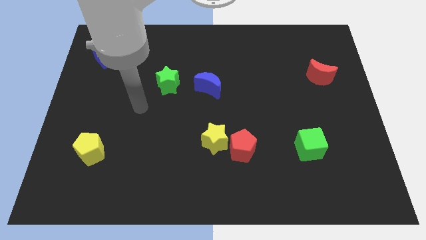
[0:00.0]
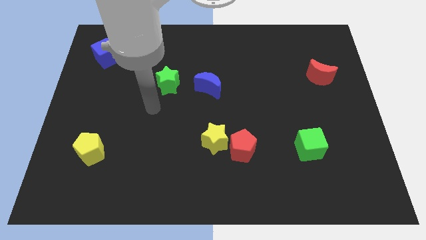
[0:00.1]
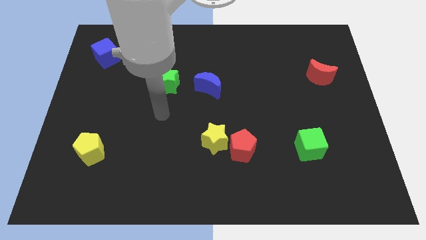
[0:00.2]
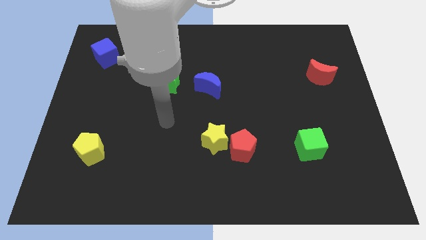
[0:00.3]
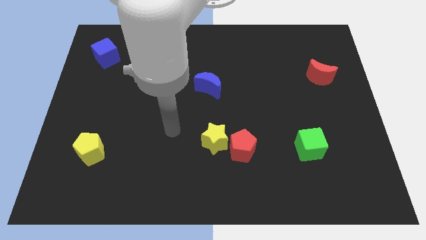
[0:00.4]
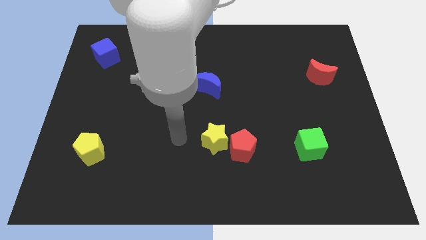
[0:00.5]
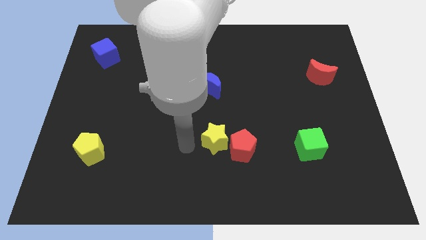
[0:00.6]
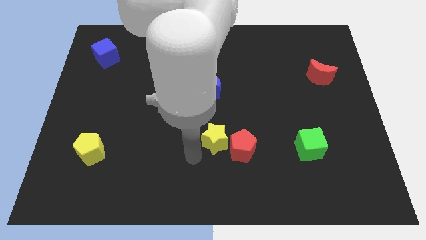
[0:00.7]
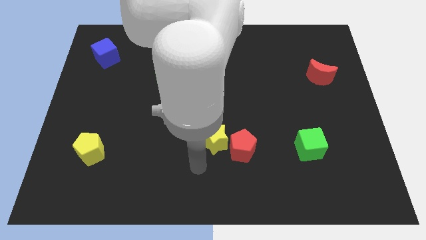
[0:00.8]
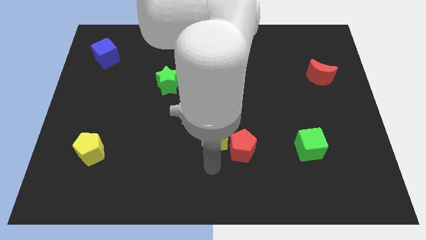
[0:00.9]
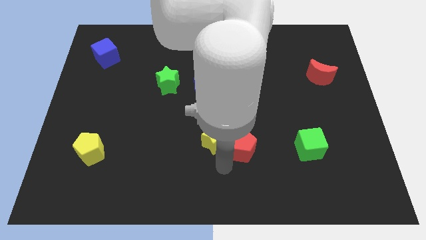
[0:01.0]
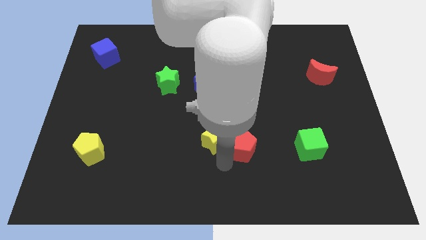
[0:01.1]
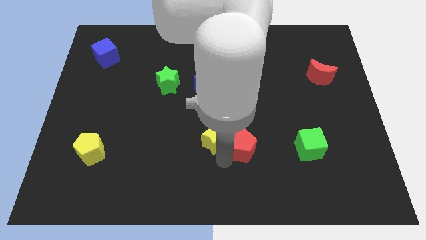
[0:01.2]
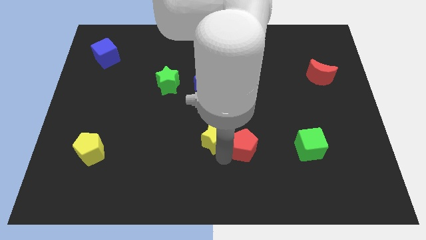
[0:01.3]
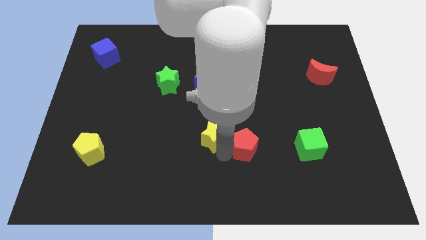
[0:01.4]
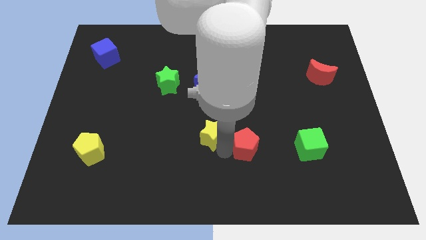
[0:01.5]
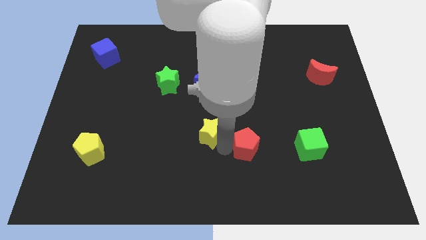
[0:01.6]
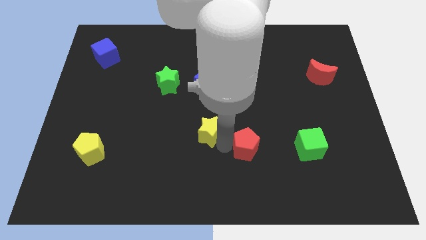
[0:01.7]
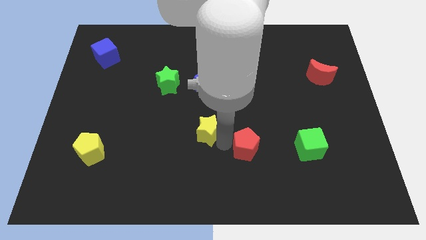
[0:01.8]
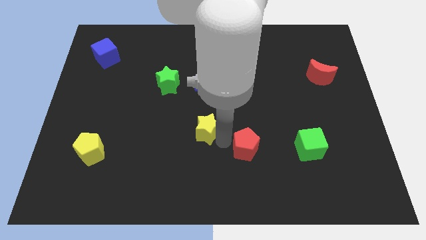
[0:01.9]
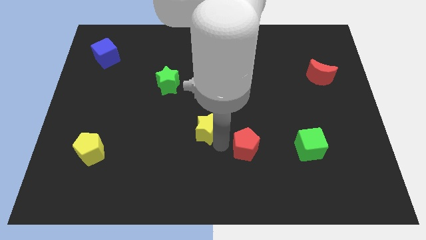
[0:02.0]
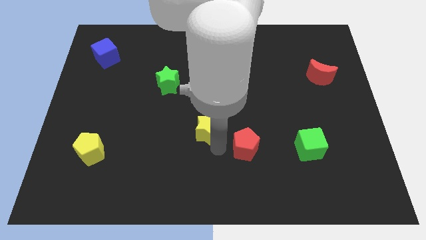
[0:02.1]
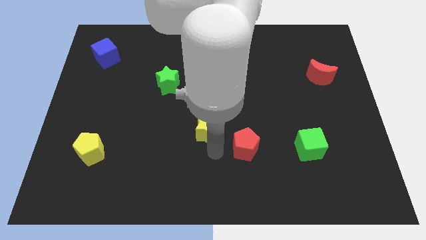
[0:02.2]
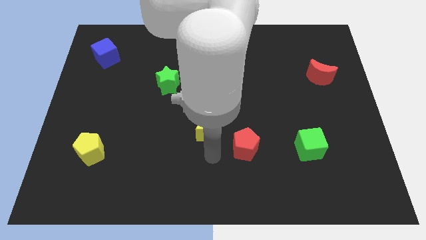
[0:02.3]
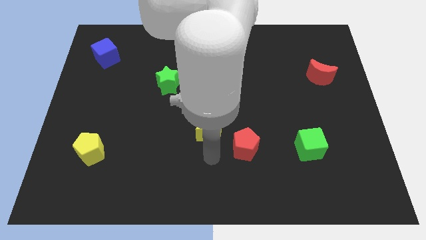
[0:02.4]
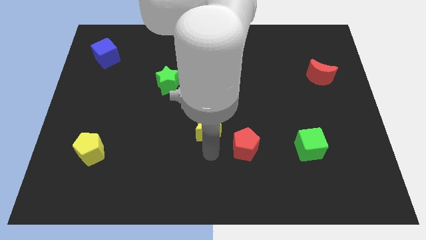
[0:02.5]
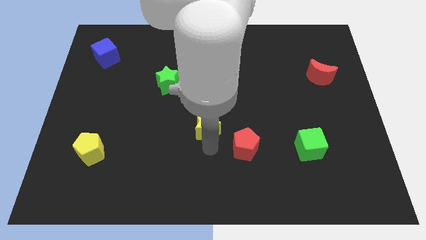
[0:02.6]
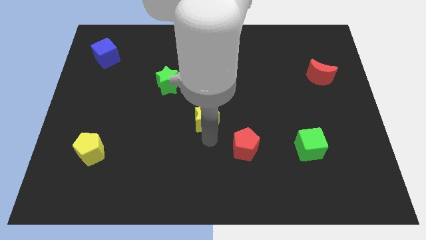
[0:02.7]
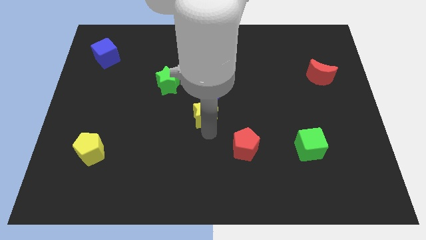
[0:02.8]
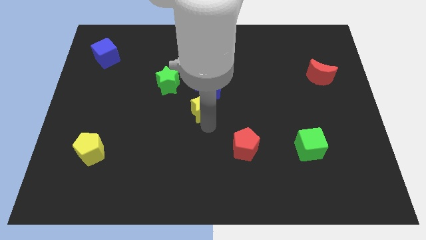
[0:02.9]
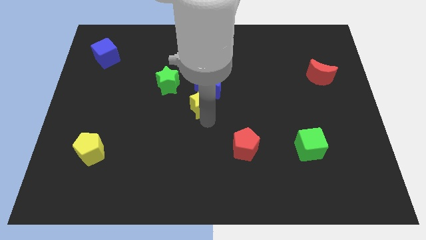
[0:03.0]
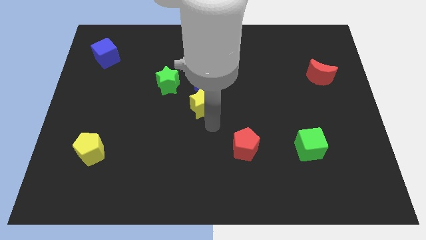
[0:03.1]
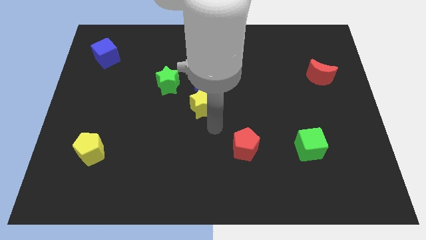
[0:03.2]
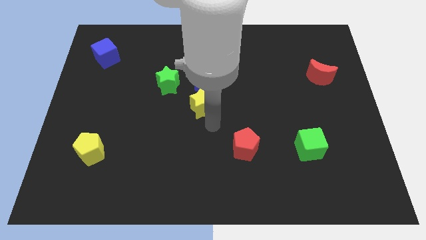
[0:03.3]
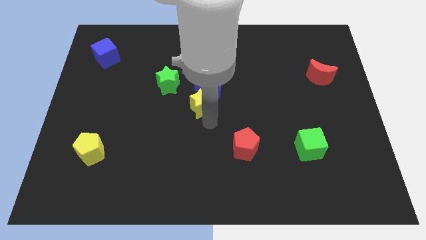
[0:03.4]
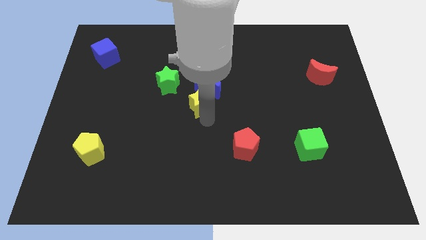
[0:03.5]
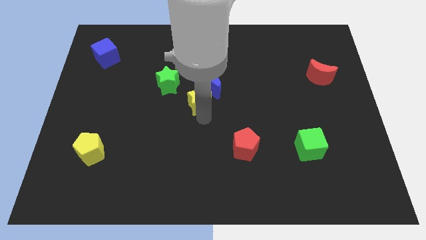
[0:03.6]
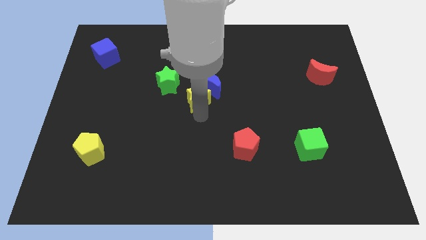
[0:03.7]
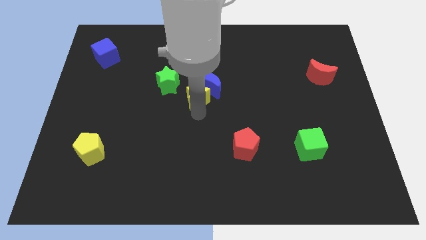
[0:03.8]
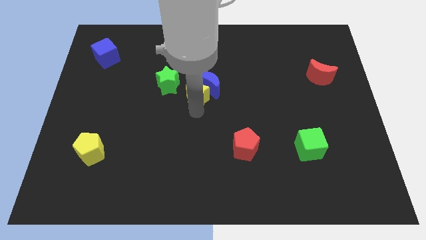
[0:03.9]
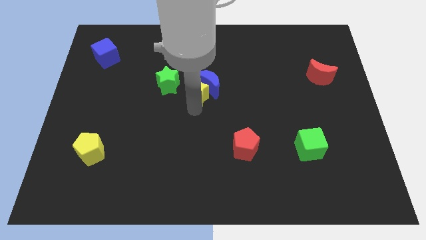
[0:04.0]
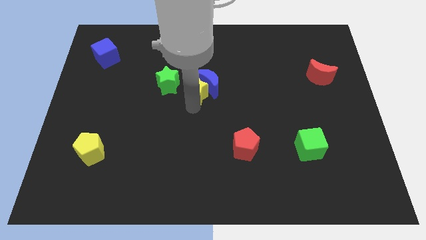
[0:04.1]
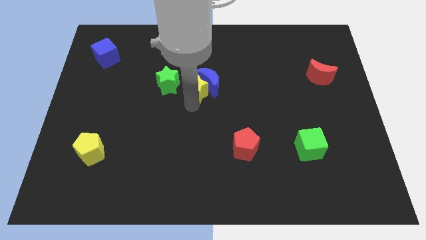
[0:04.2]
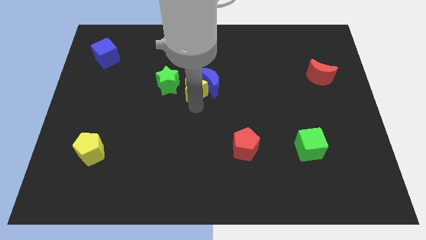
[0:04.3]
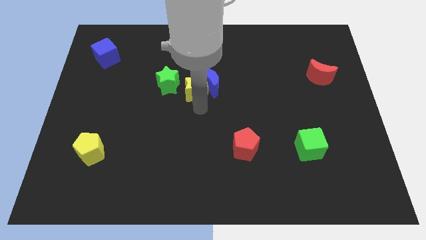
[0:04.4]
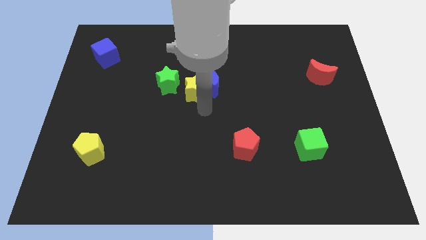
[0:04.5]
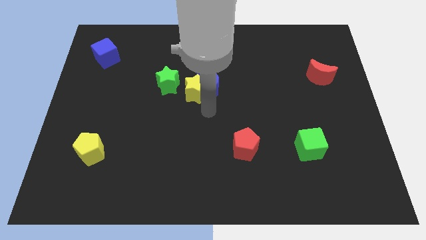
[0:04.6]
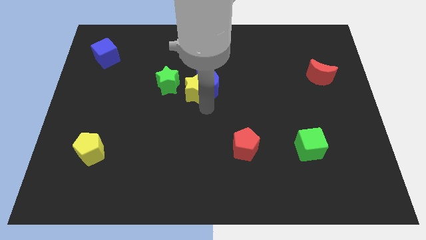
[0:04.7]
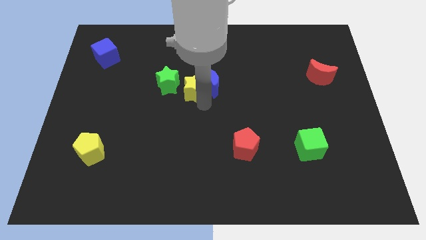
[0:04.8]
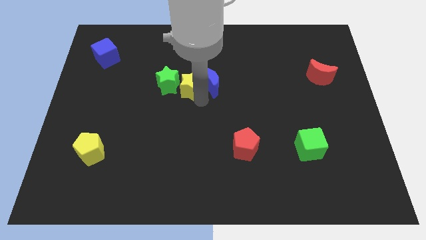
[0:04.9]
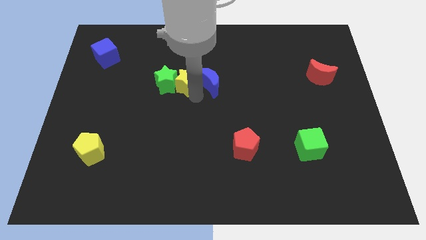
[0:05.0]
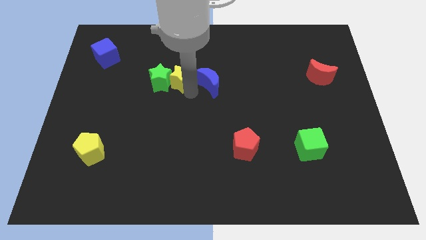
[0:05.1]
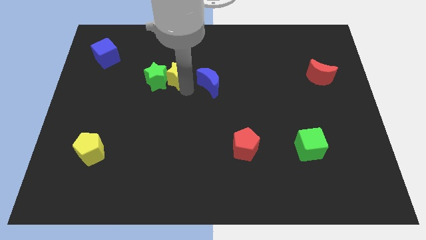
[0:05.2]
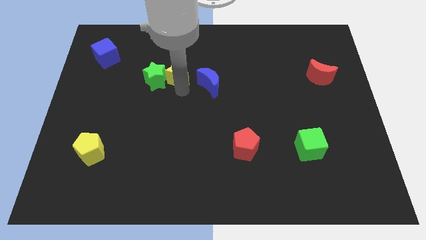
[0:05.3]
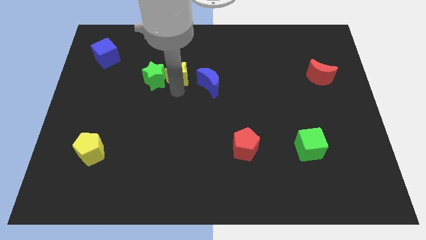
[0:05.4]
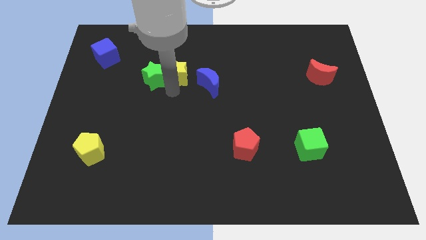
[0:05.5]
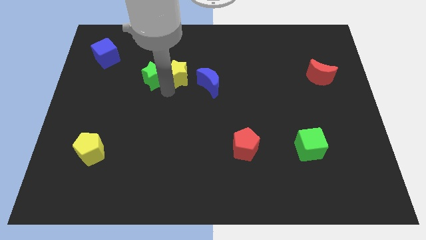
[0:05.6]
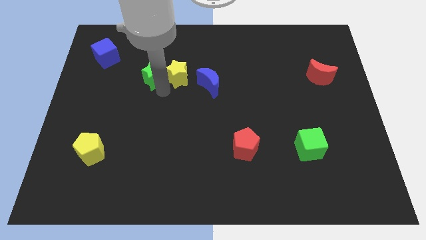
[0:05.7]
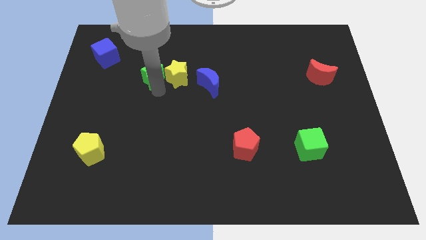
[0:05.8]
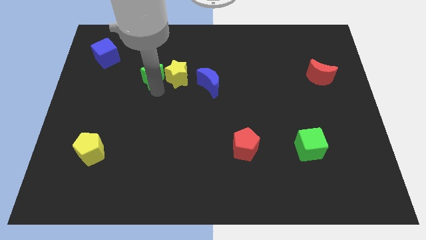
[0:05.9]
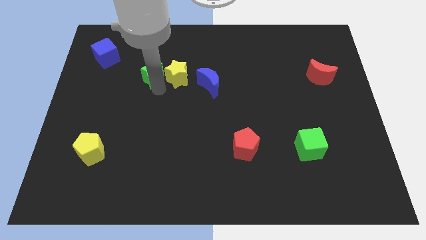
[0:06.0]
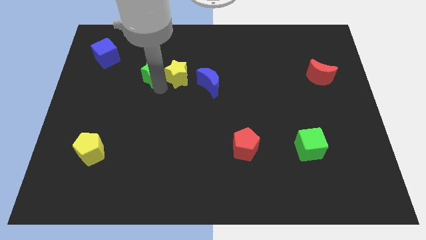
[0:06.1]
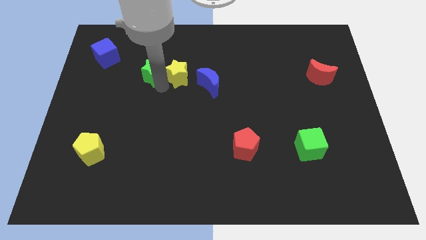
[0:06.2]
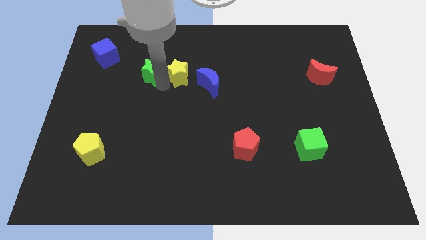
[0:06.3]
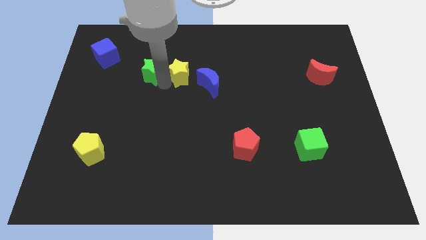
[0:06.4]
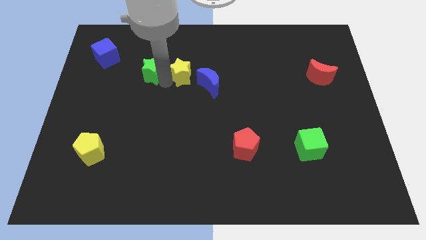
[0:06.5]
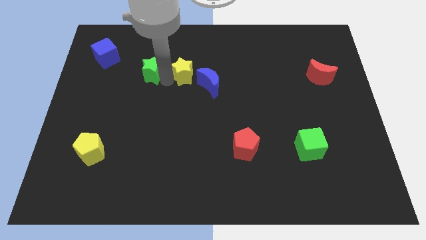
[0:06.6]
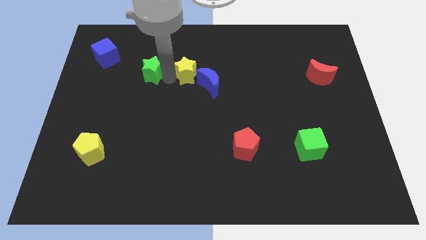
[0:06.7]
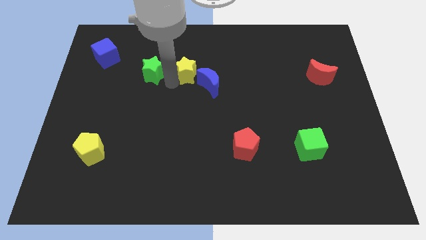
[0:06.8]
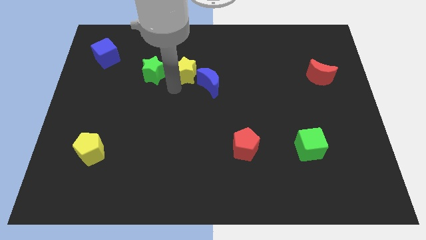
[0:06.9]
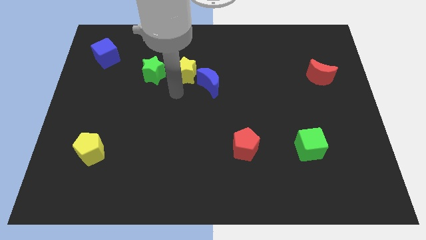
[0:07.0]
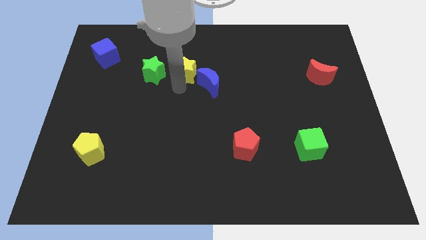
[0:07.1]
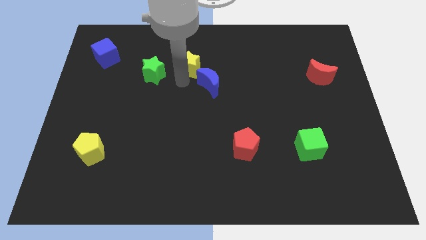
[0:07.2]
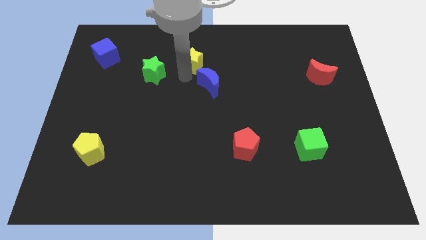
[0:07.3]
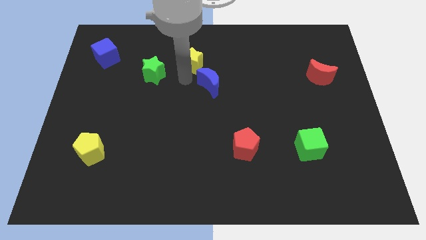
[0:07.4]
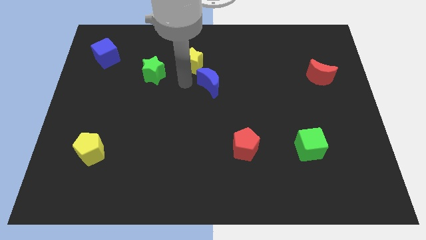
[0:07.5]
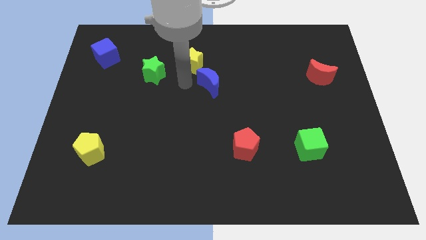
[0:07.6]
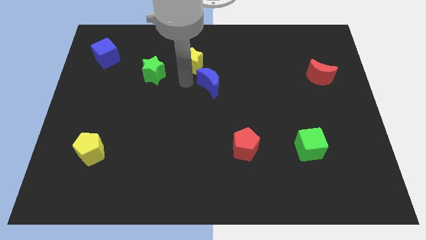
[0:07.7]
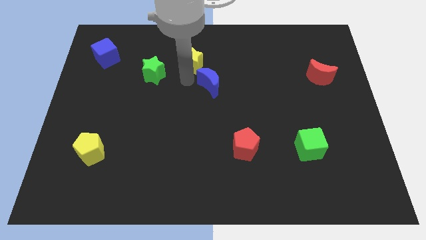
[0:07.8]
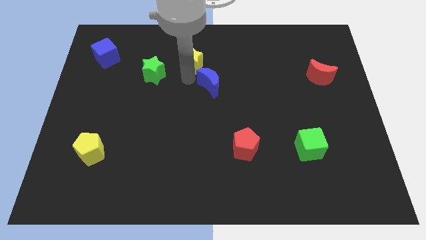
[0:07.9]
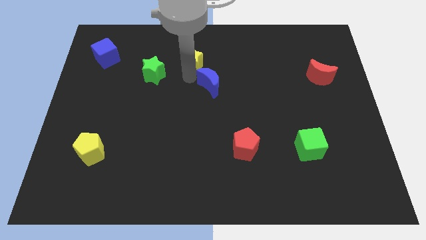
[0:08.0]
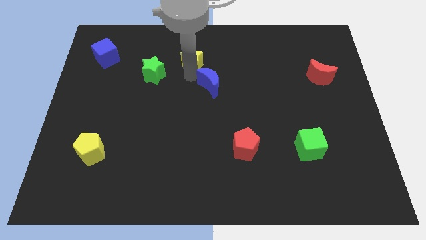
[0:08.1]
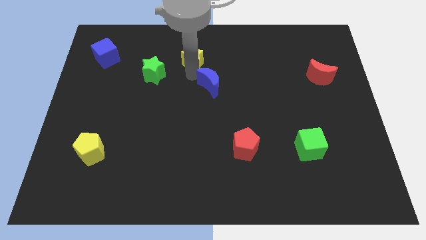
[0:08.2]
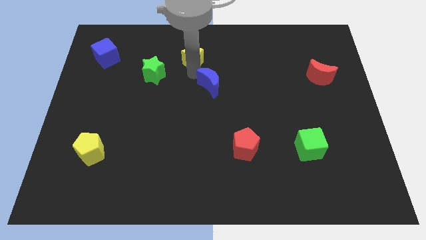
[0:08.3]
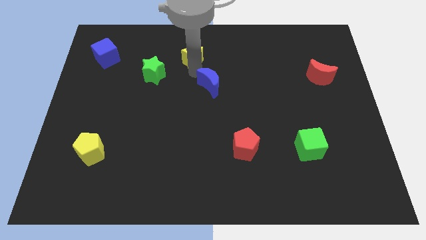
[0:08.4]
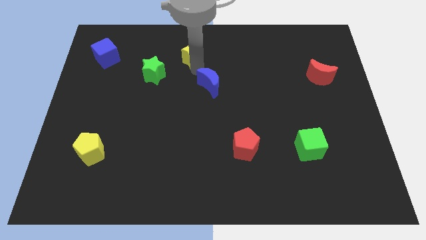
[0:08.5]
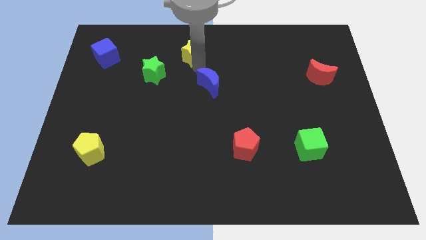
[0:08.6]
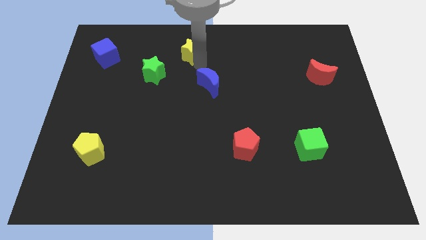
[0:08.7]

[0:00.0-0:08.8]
move the yellow star to the top side
